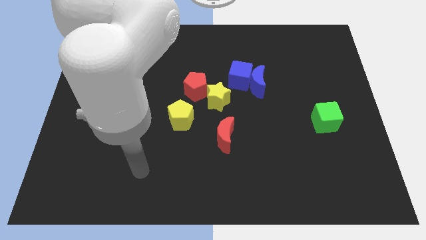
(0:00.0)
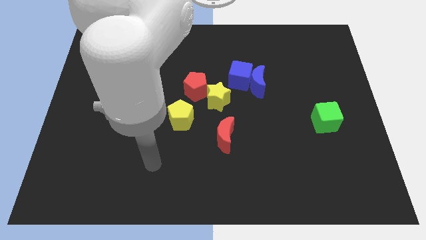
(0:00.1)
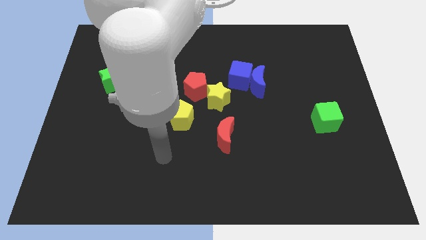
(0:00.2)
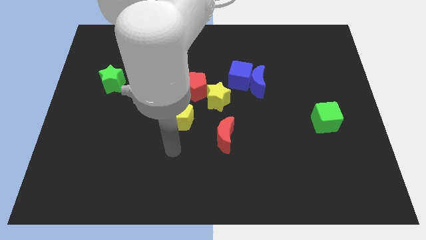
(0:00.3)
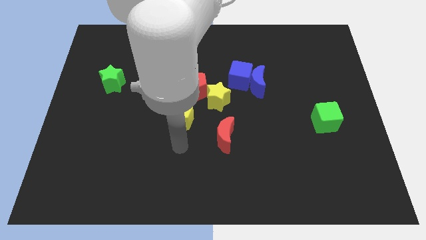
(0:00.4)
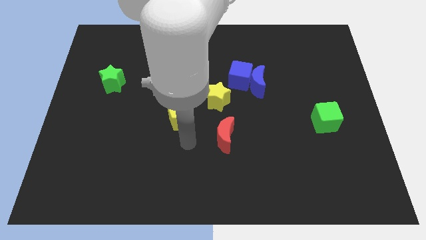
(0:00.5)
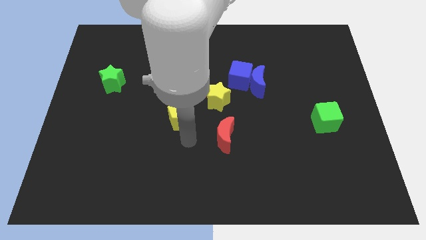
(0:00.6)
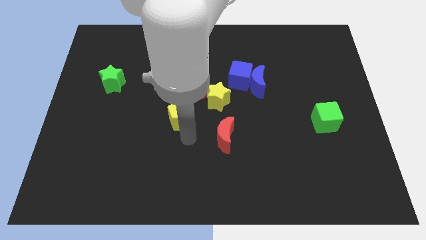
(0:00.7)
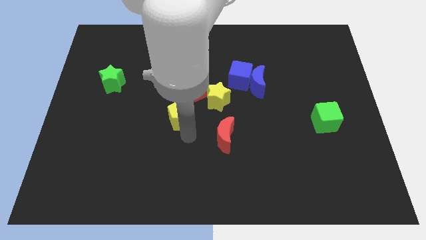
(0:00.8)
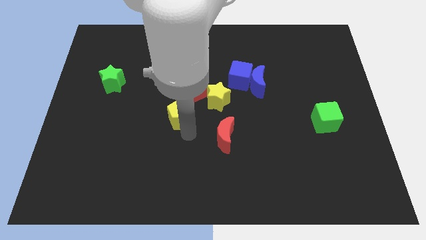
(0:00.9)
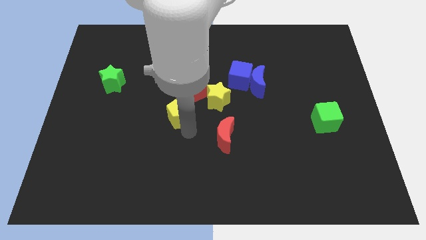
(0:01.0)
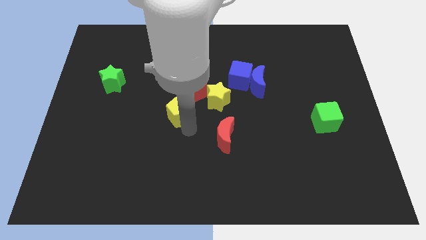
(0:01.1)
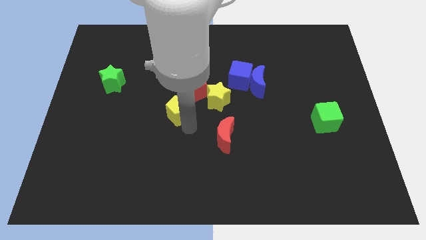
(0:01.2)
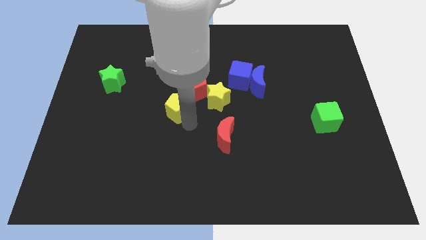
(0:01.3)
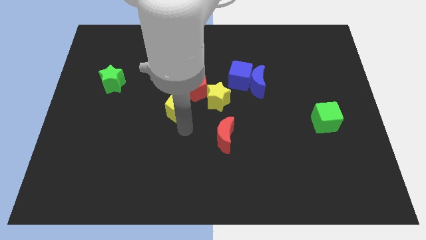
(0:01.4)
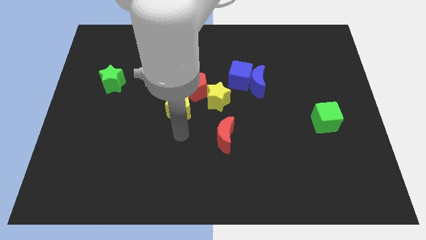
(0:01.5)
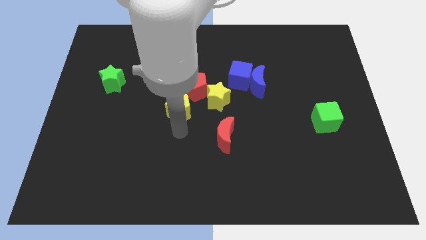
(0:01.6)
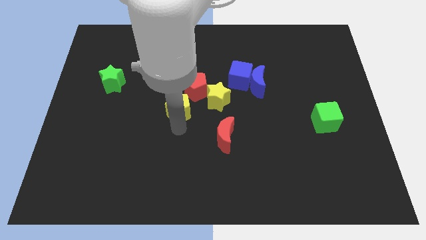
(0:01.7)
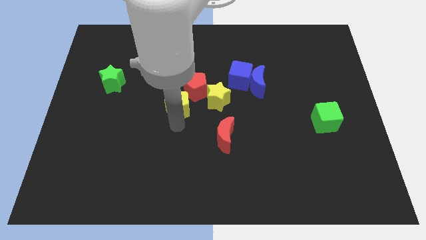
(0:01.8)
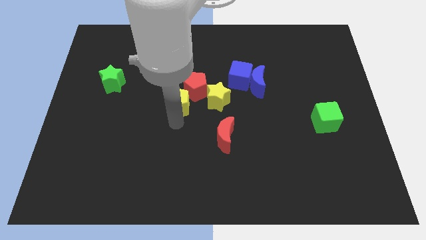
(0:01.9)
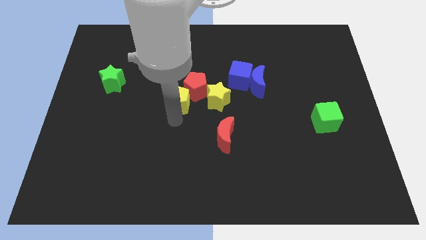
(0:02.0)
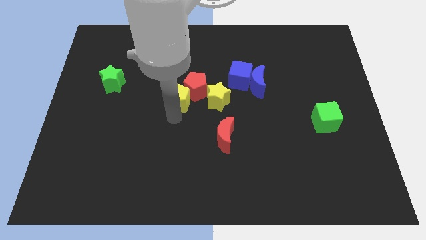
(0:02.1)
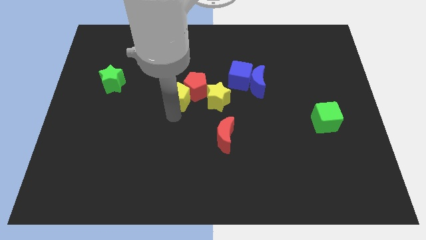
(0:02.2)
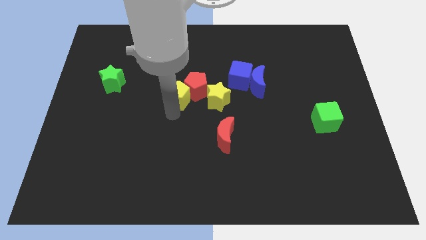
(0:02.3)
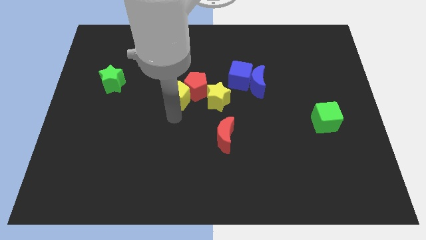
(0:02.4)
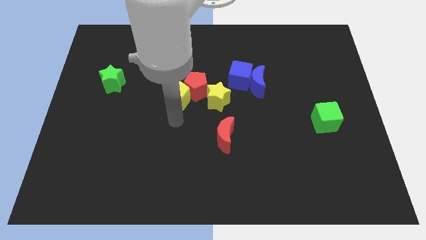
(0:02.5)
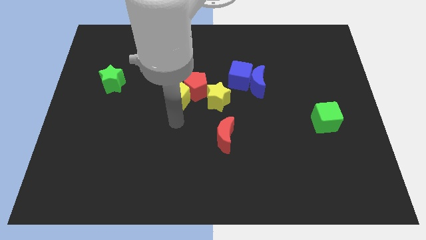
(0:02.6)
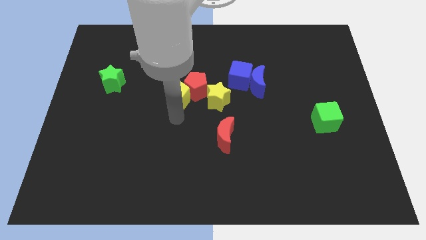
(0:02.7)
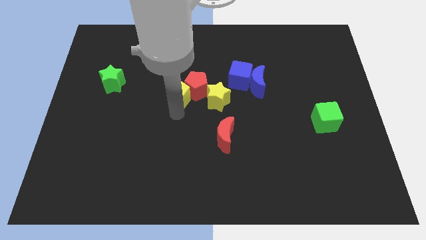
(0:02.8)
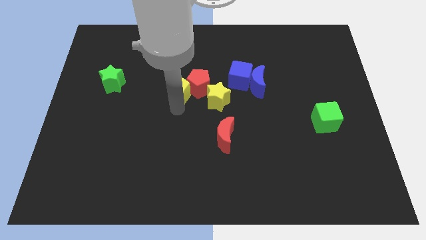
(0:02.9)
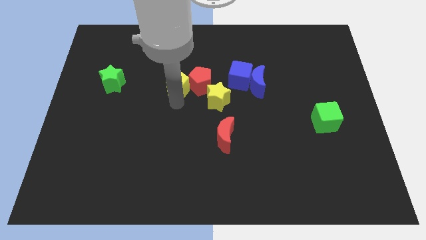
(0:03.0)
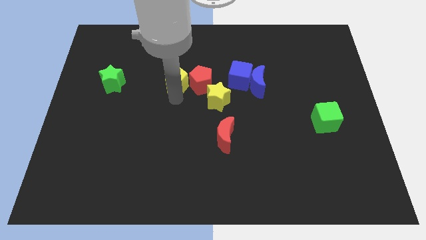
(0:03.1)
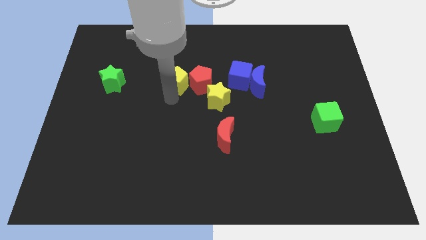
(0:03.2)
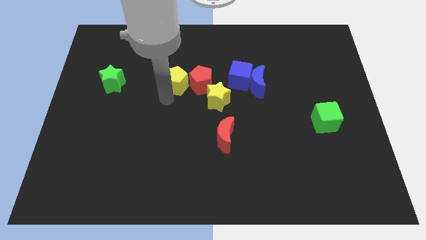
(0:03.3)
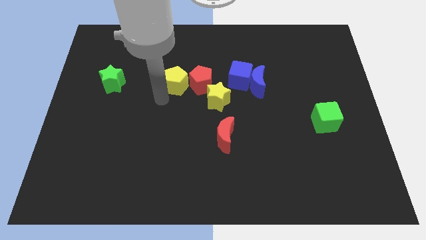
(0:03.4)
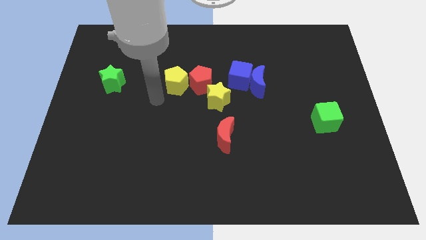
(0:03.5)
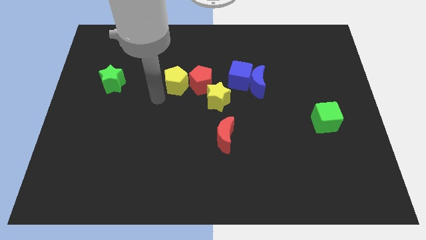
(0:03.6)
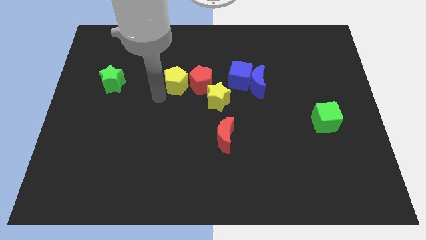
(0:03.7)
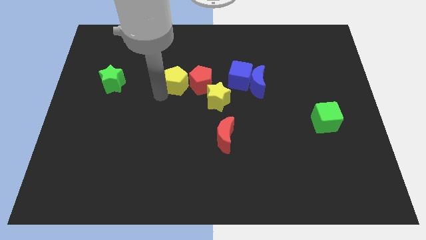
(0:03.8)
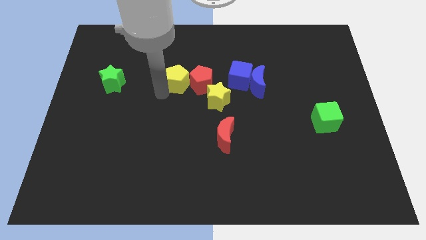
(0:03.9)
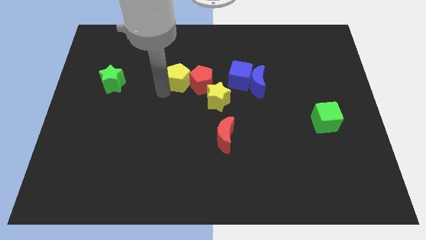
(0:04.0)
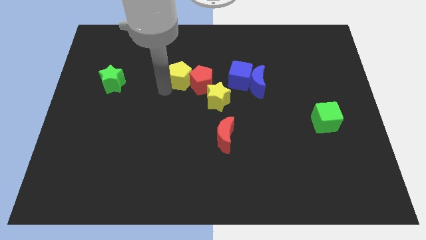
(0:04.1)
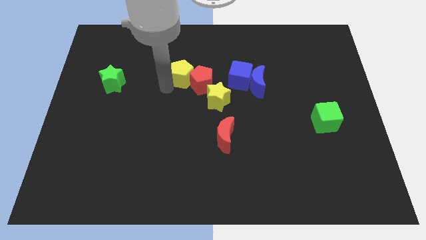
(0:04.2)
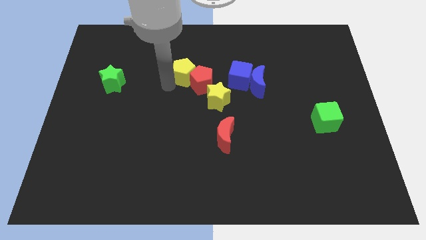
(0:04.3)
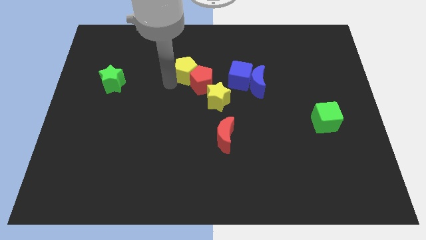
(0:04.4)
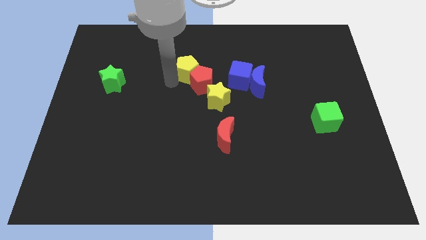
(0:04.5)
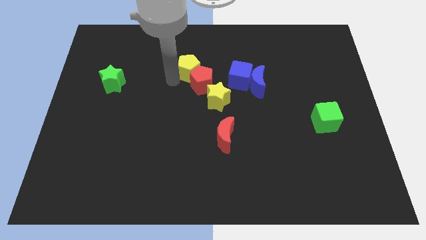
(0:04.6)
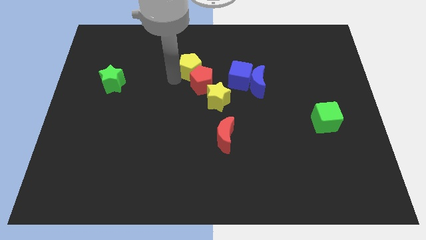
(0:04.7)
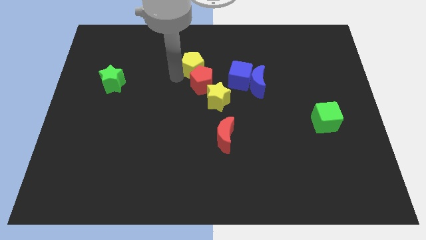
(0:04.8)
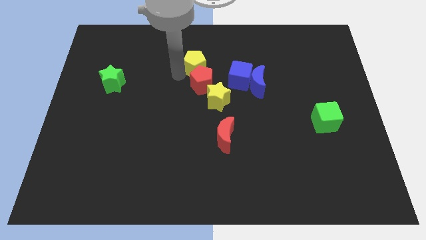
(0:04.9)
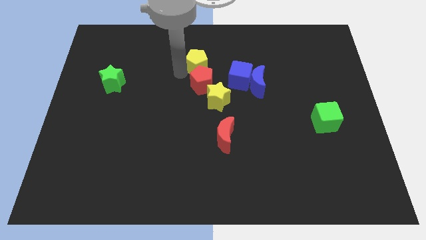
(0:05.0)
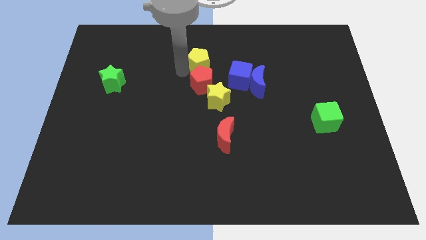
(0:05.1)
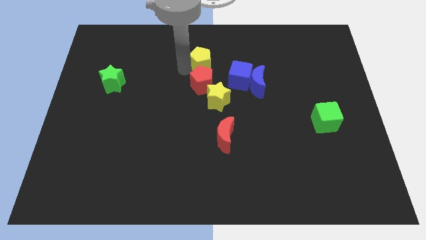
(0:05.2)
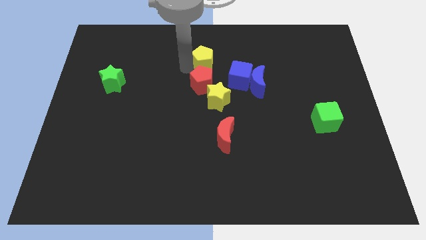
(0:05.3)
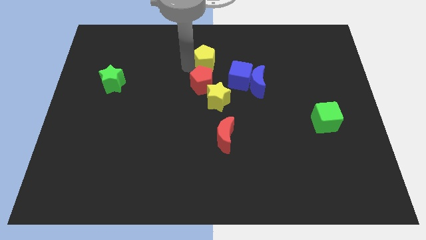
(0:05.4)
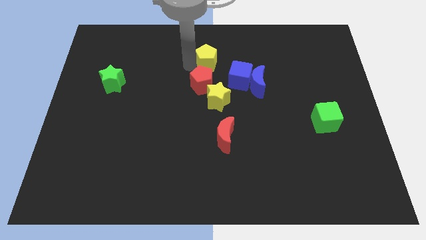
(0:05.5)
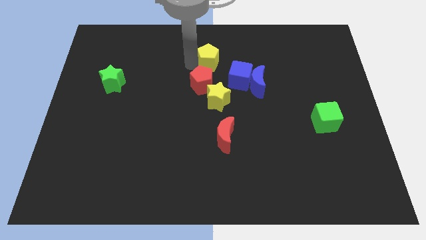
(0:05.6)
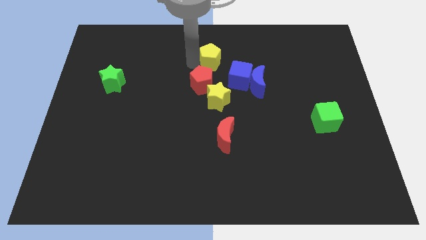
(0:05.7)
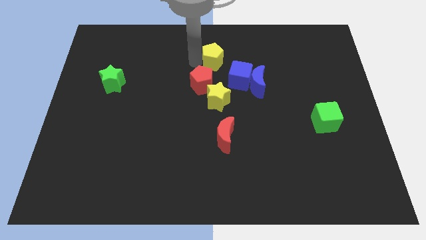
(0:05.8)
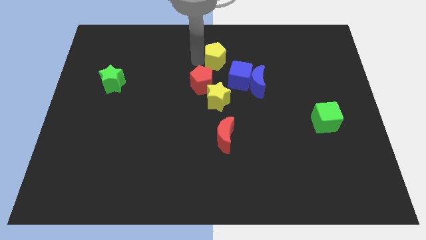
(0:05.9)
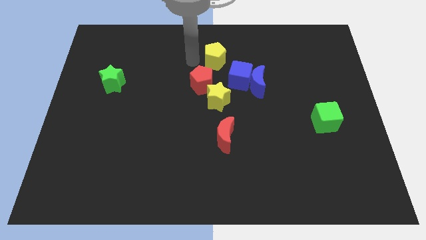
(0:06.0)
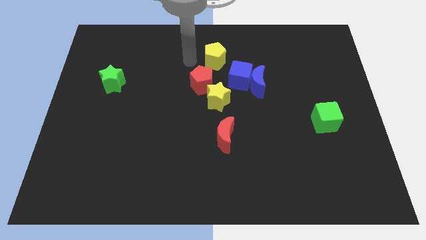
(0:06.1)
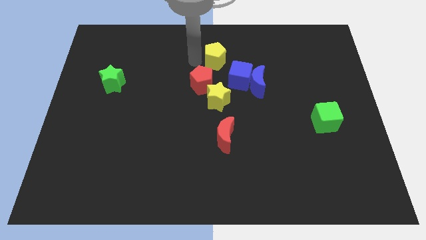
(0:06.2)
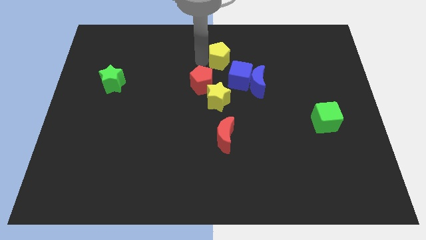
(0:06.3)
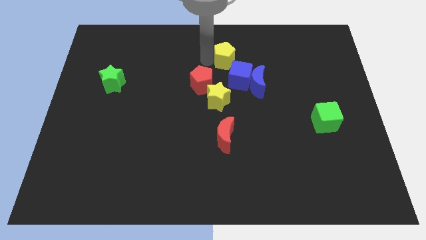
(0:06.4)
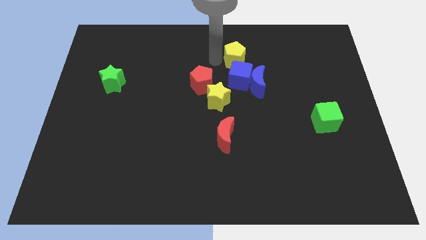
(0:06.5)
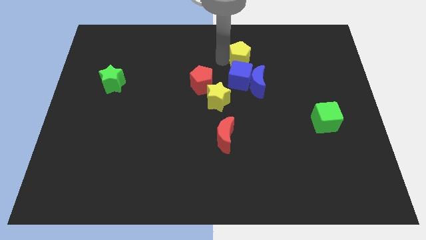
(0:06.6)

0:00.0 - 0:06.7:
move the yellow pentagon to the top of the blue moon

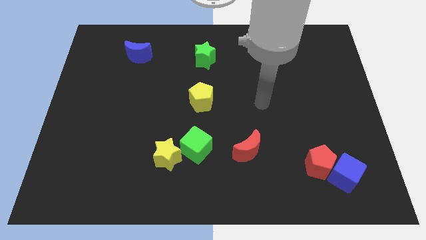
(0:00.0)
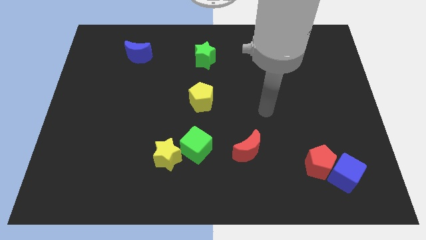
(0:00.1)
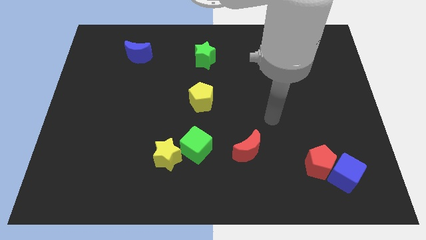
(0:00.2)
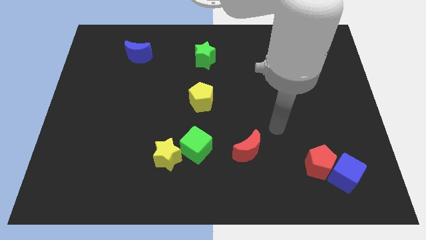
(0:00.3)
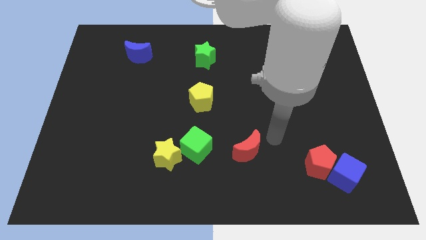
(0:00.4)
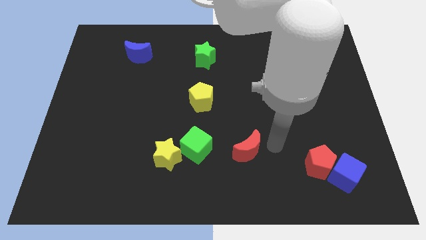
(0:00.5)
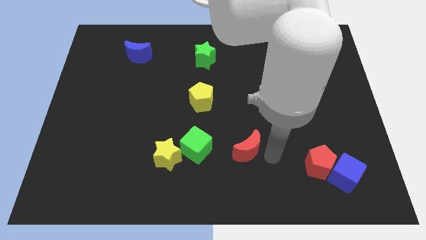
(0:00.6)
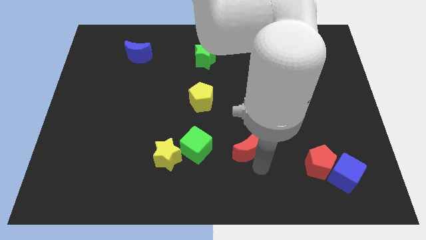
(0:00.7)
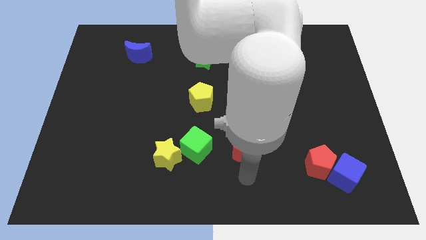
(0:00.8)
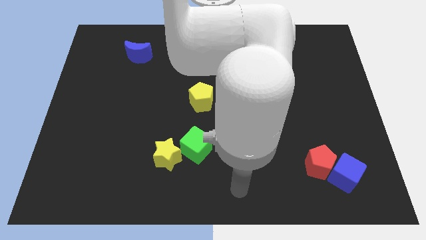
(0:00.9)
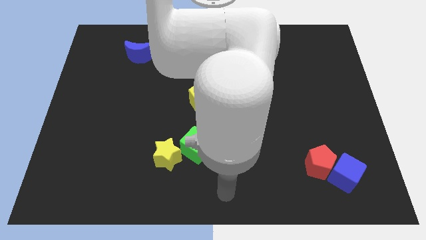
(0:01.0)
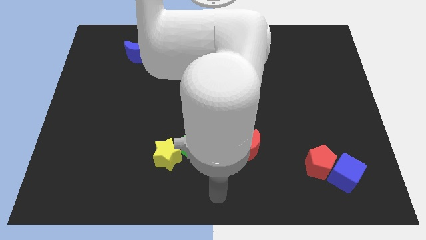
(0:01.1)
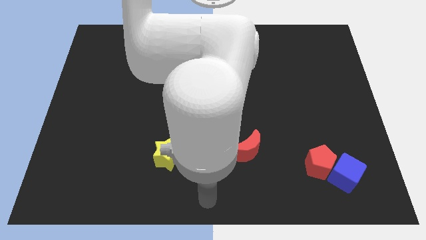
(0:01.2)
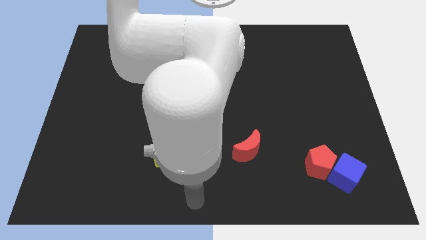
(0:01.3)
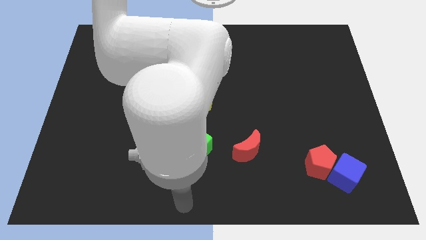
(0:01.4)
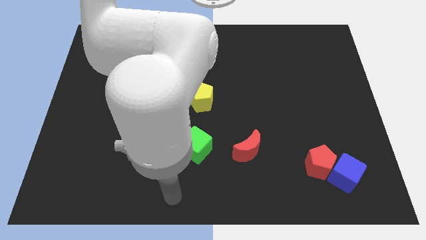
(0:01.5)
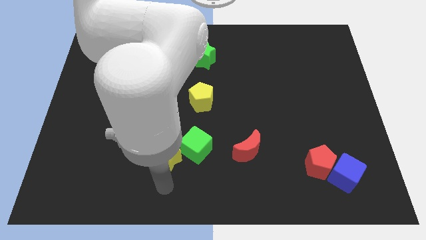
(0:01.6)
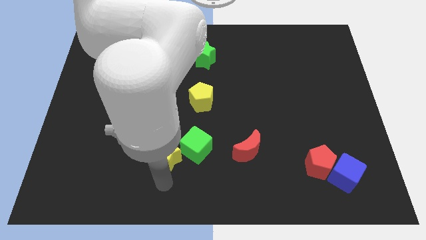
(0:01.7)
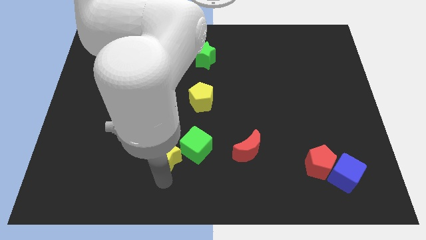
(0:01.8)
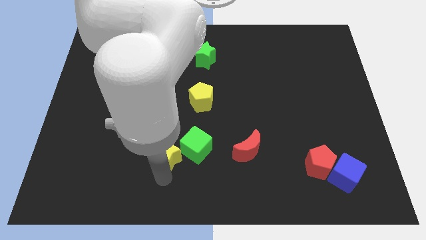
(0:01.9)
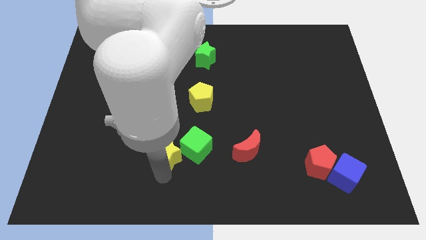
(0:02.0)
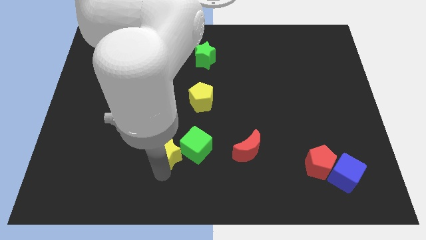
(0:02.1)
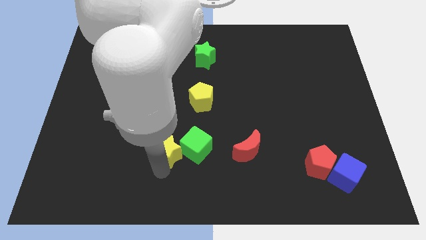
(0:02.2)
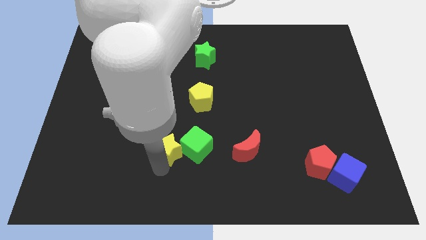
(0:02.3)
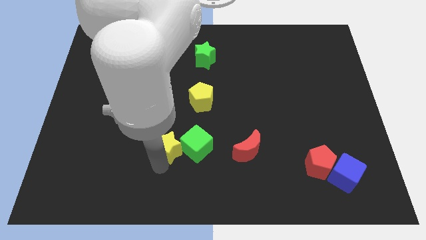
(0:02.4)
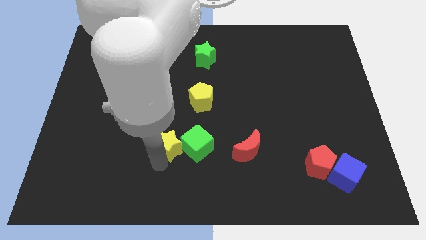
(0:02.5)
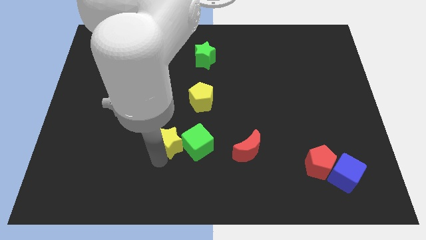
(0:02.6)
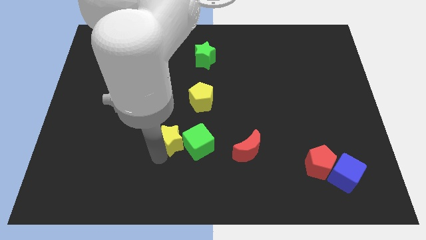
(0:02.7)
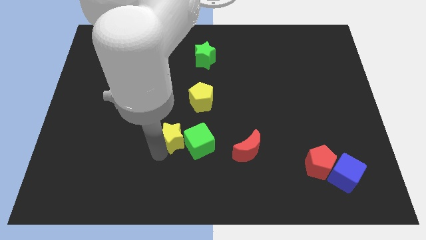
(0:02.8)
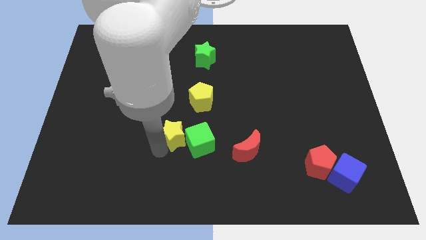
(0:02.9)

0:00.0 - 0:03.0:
slide the yellow star to the bottom left of the yellow pentagon
